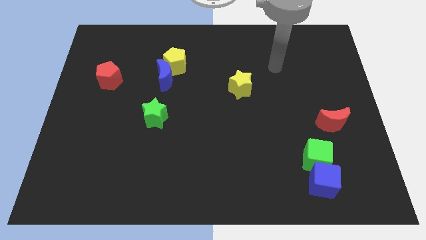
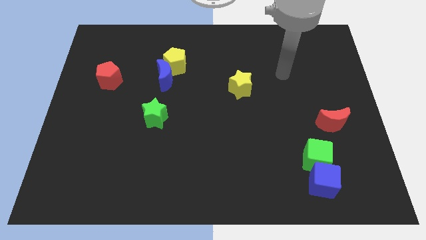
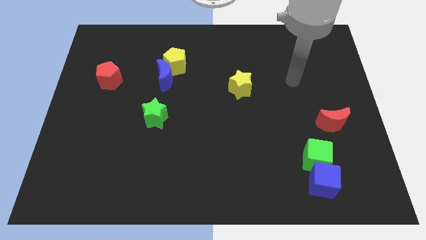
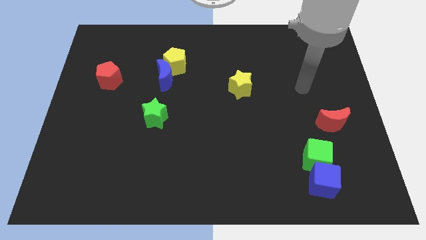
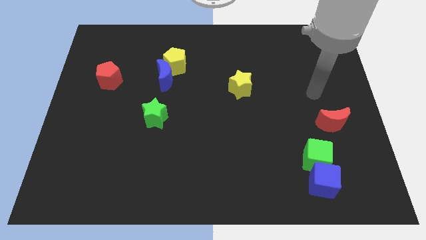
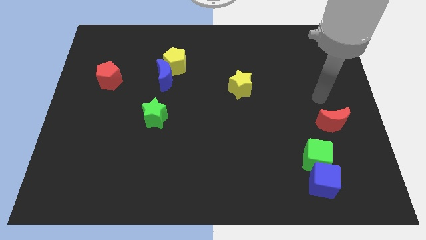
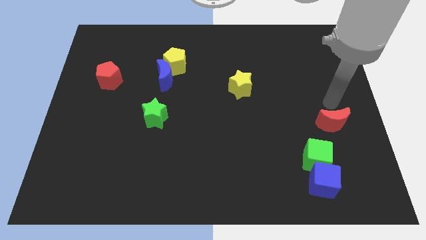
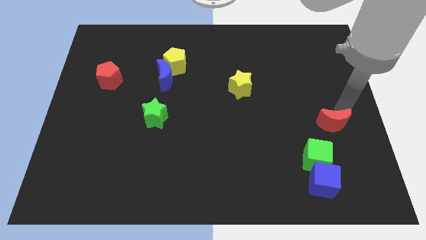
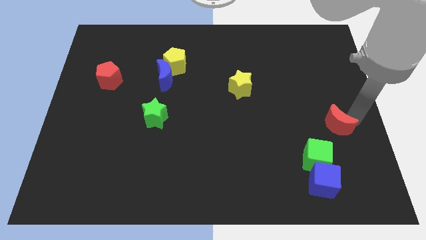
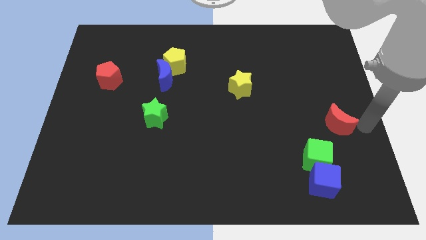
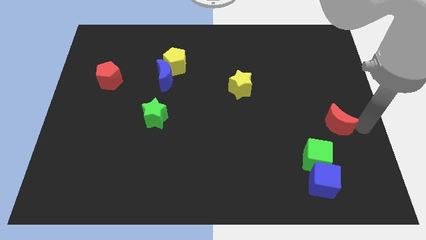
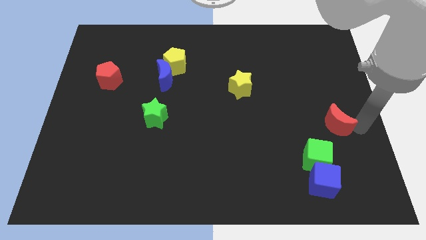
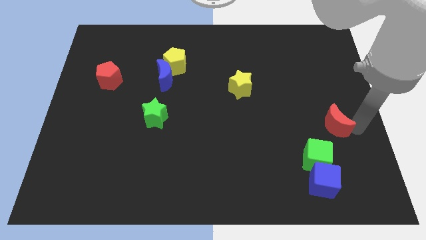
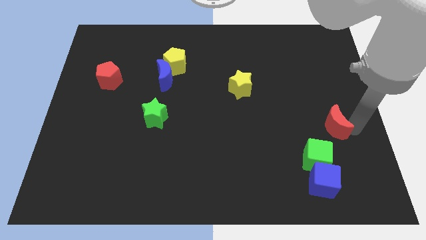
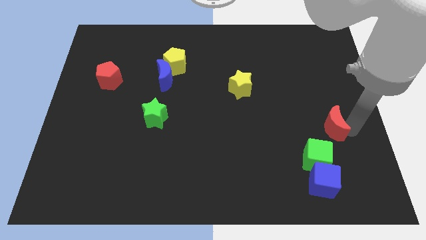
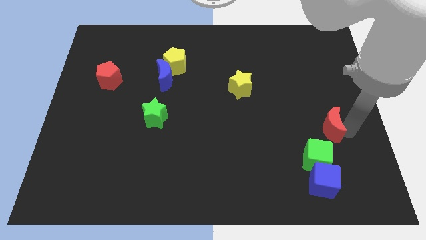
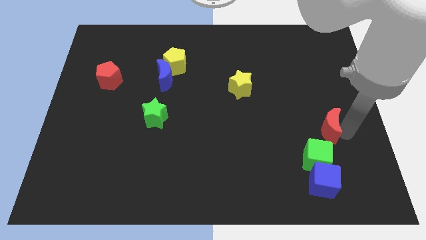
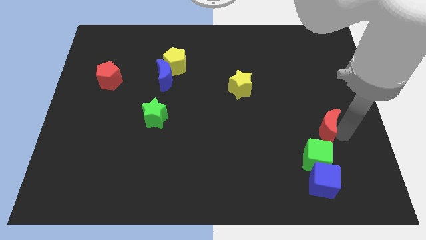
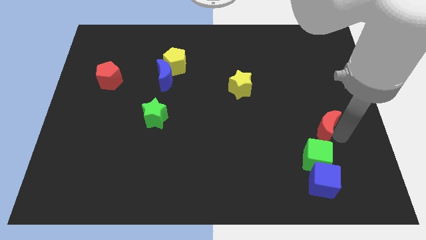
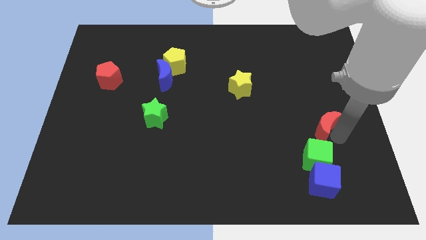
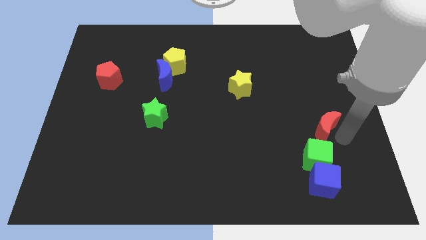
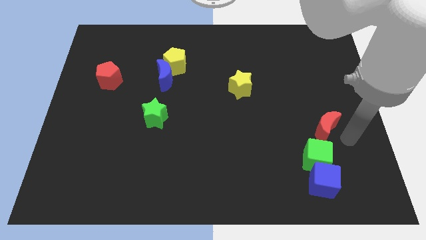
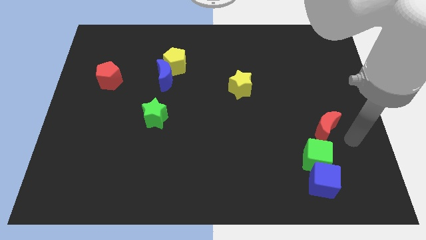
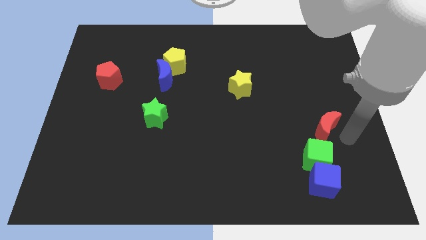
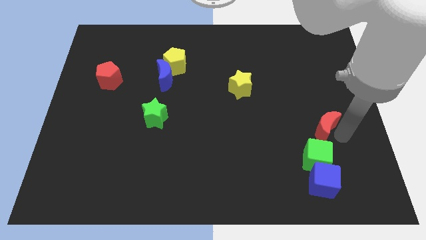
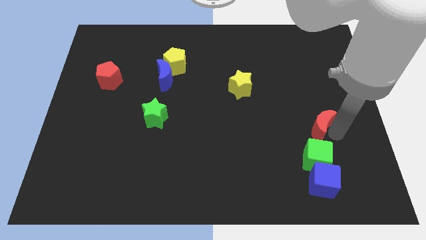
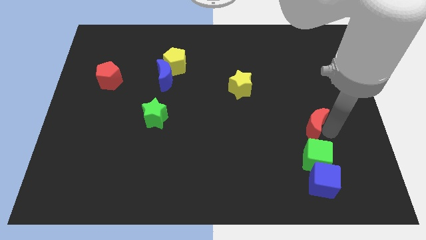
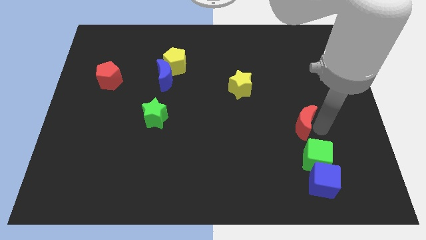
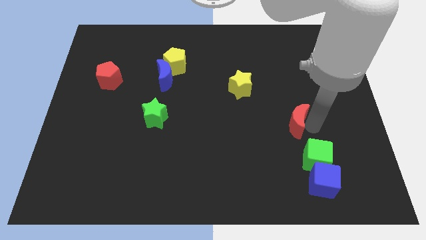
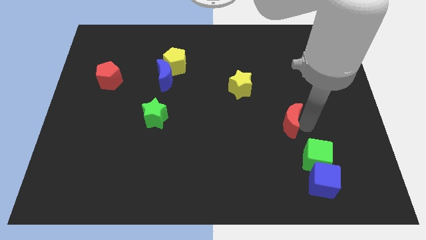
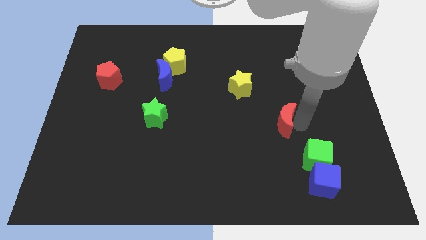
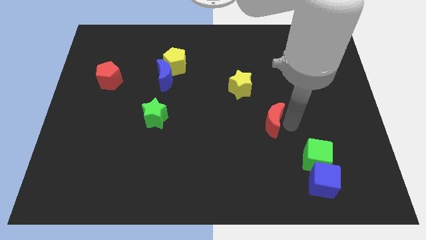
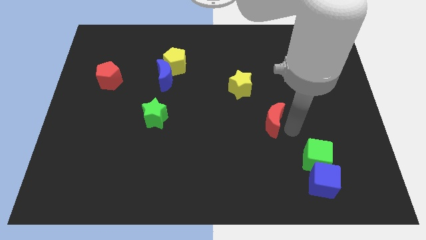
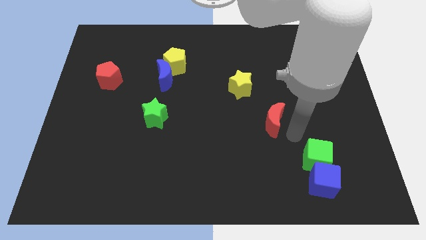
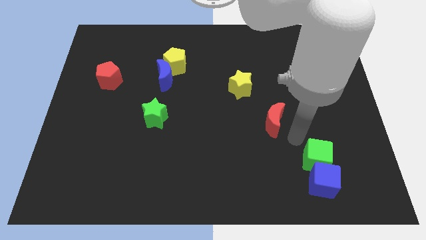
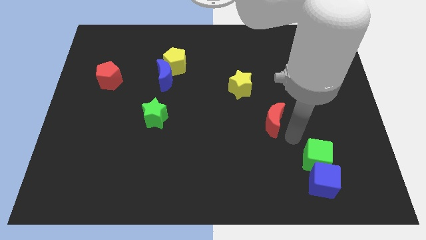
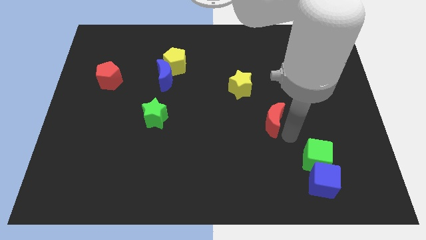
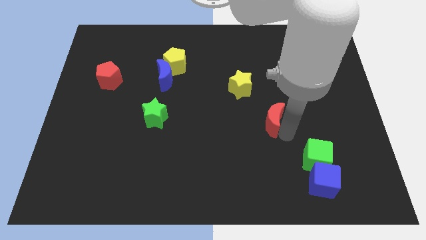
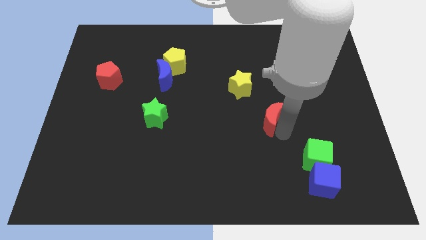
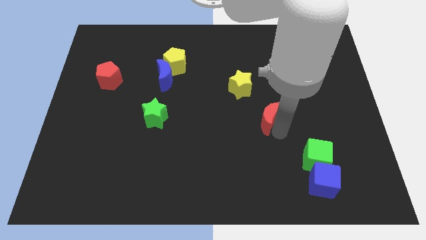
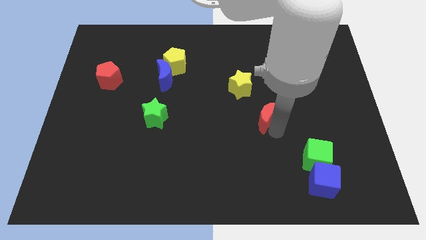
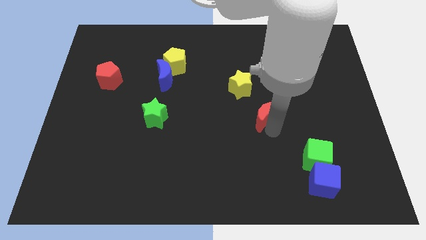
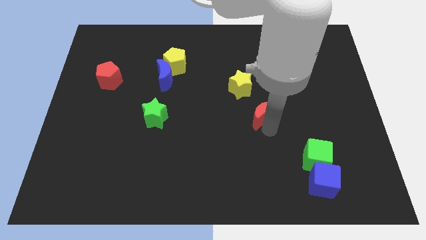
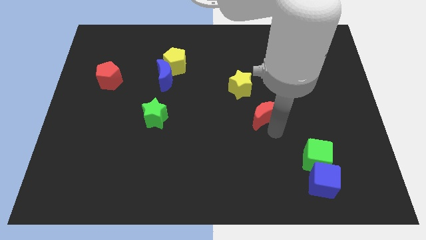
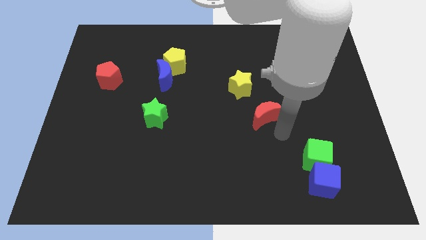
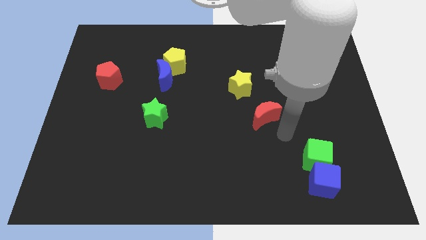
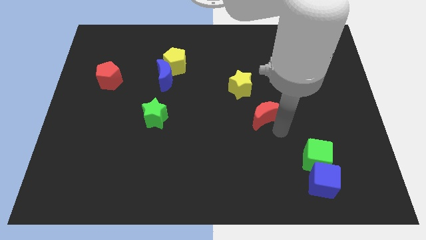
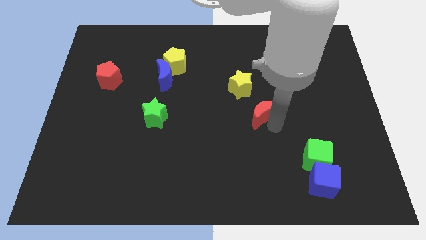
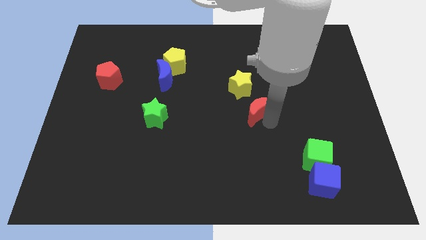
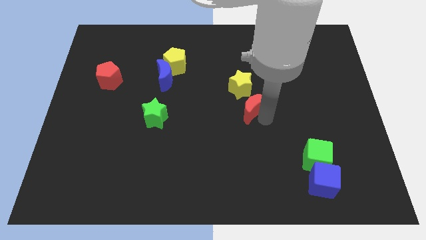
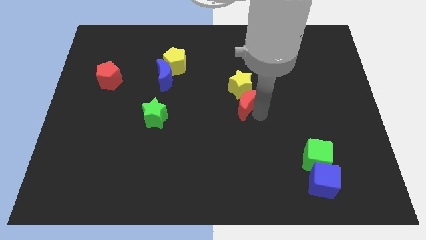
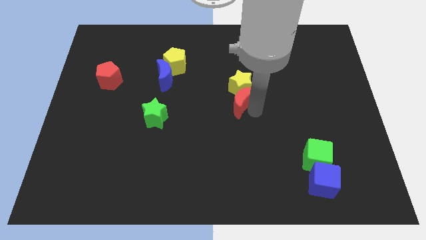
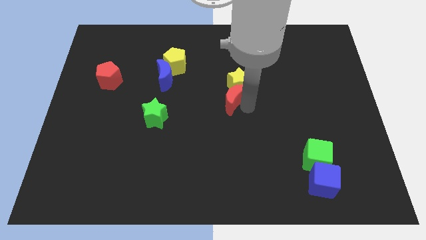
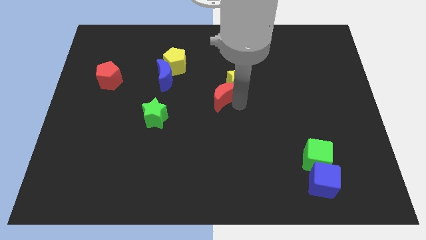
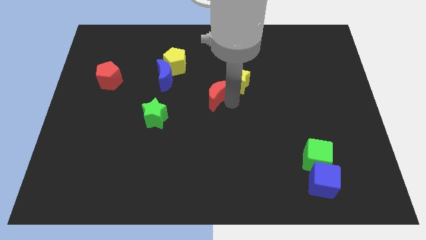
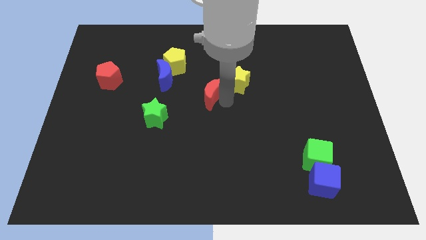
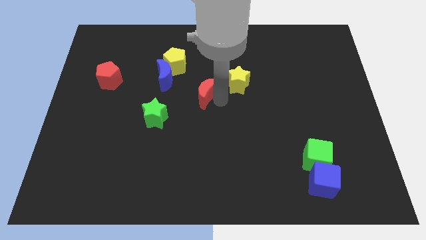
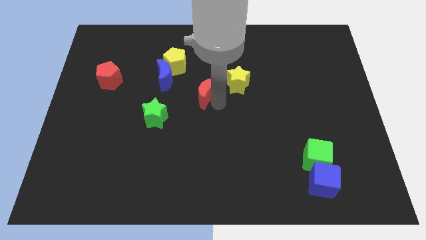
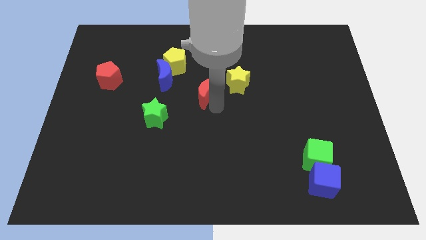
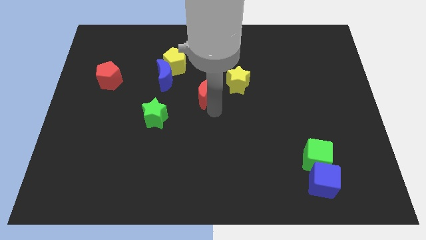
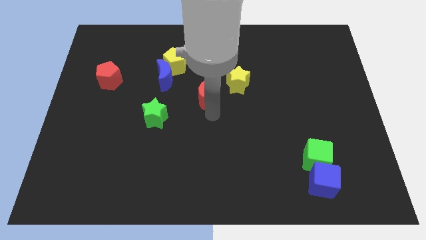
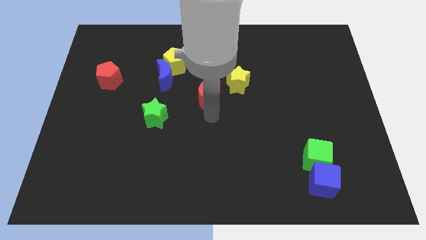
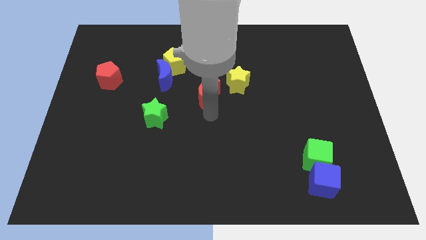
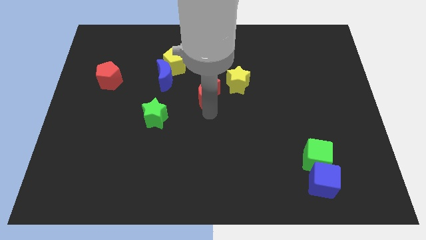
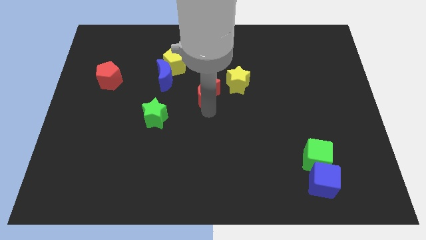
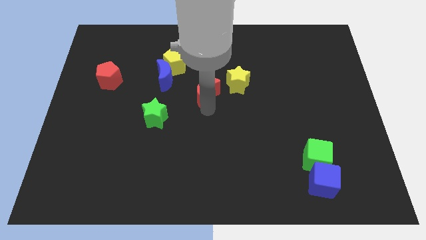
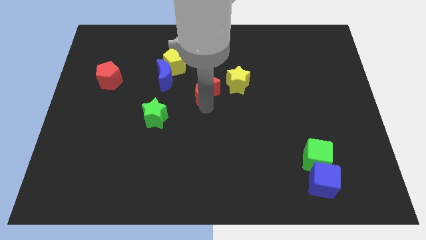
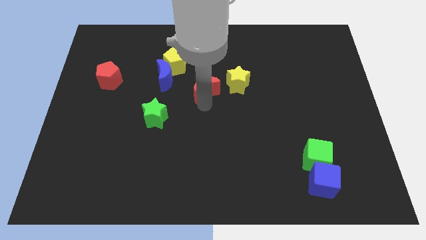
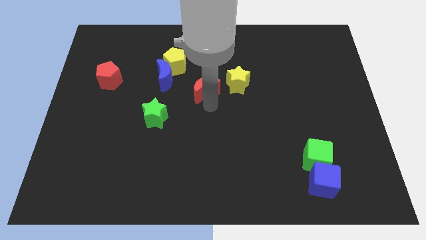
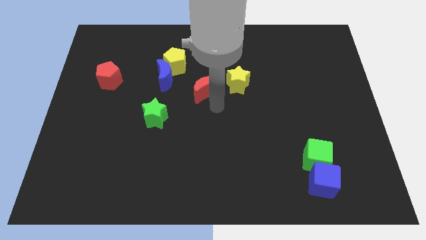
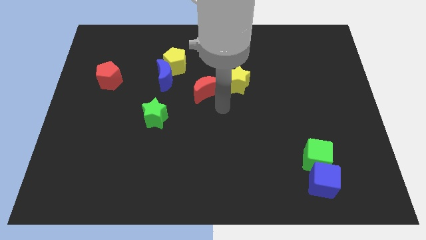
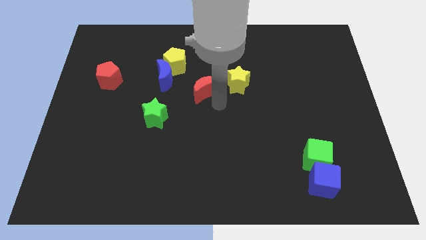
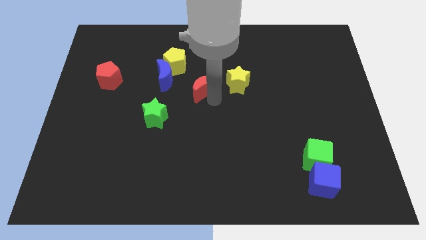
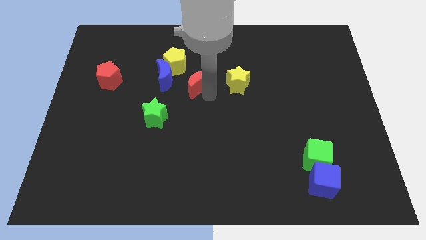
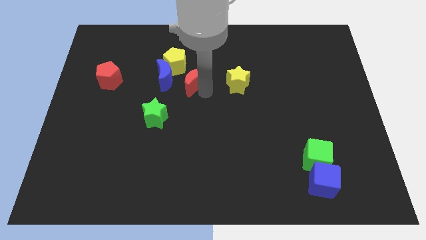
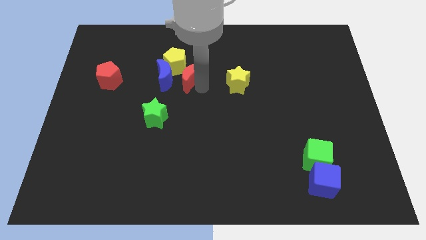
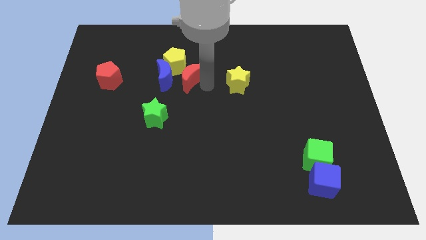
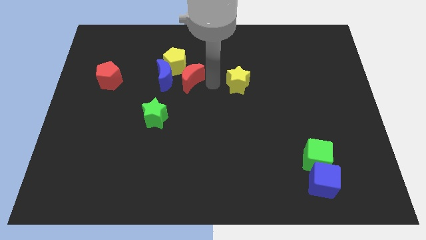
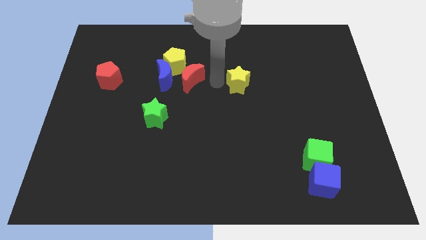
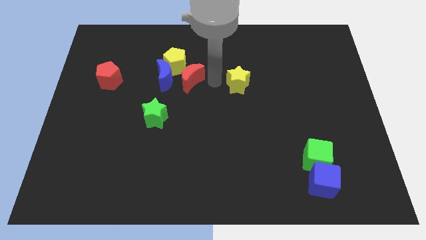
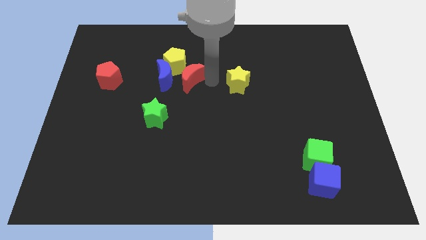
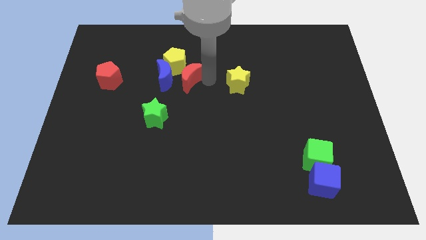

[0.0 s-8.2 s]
put the red moon close to the blue moon
